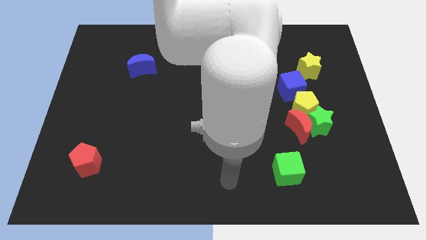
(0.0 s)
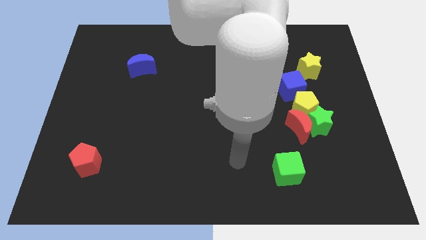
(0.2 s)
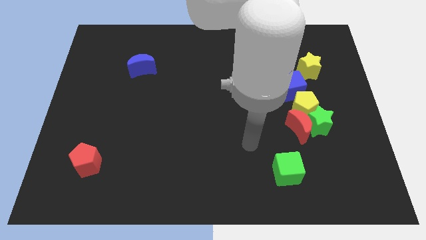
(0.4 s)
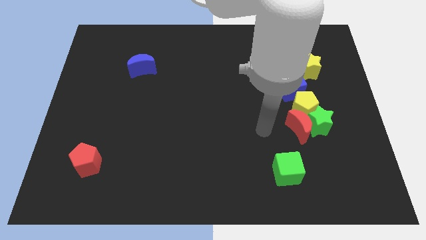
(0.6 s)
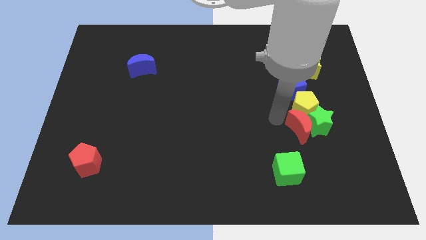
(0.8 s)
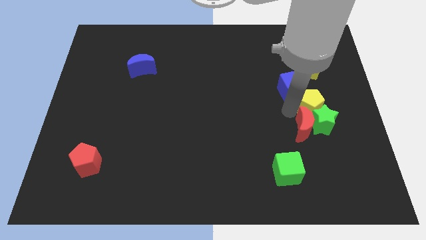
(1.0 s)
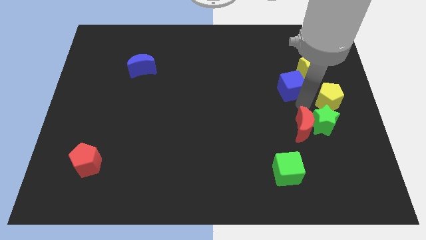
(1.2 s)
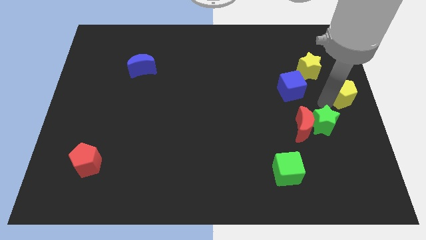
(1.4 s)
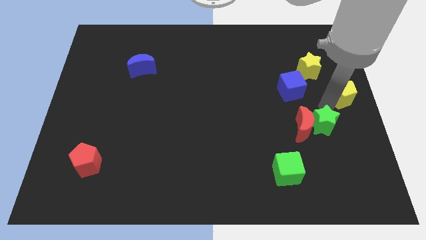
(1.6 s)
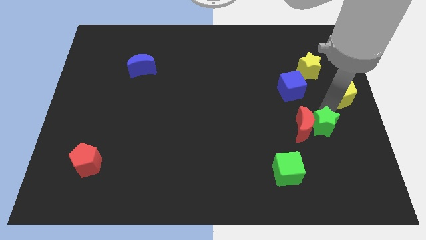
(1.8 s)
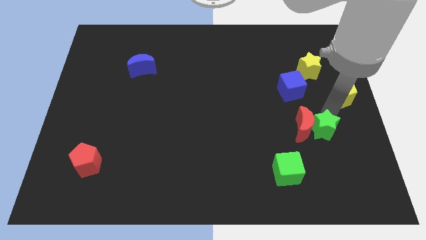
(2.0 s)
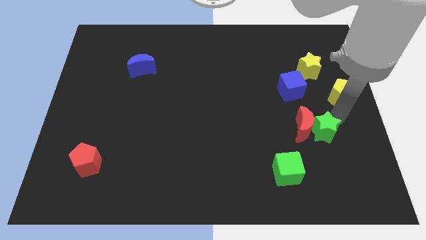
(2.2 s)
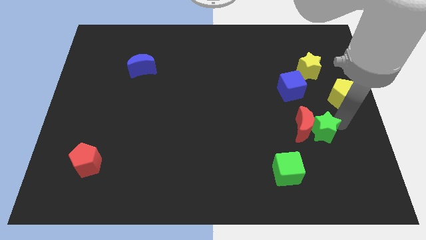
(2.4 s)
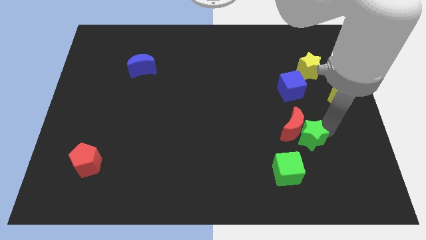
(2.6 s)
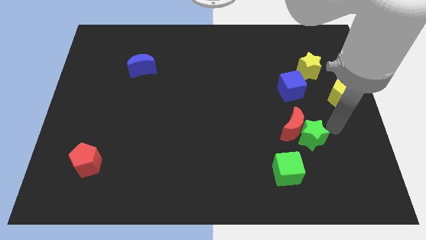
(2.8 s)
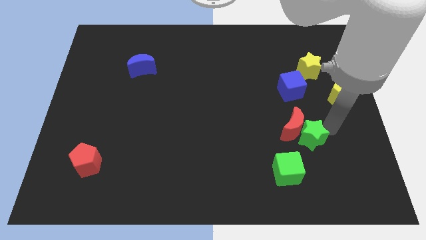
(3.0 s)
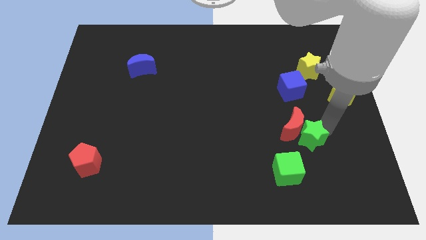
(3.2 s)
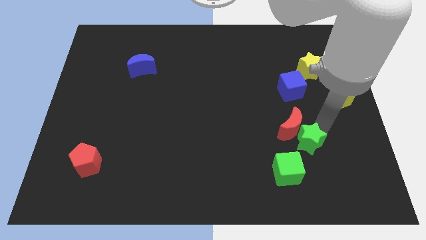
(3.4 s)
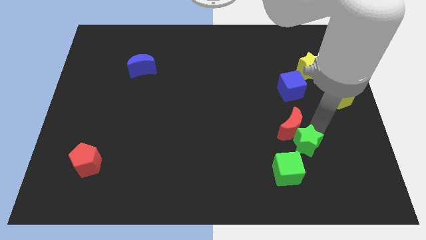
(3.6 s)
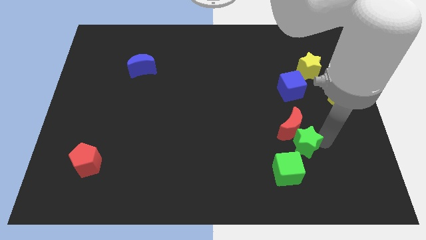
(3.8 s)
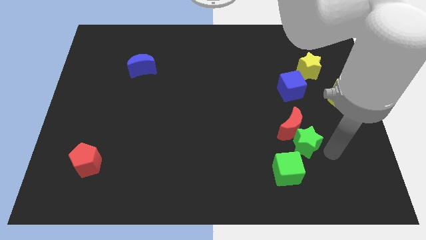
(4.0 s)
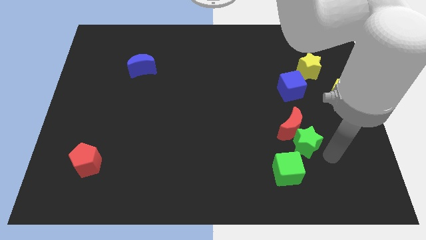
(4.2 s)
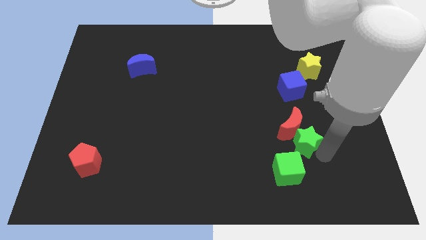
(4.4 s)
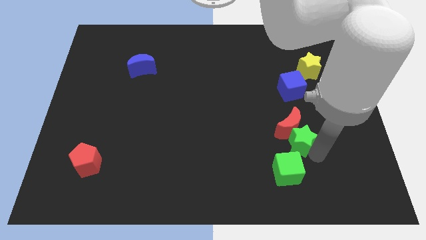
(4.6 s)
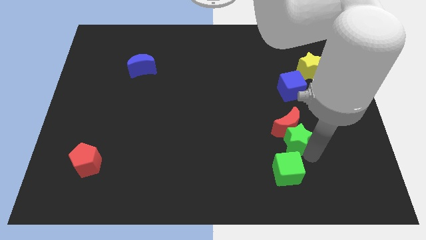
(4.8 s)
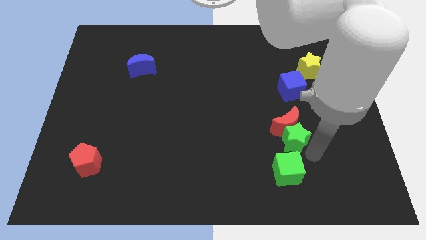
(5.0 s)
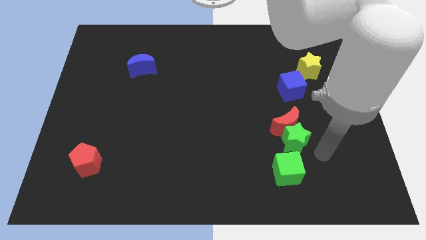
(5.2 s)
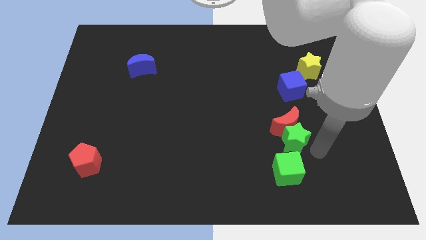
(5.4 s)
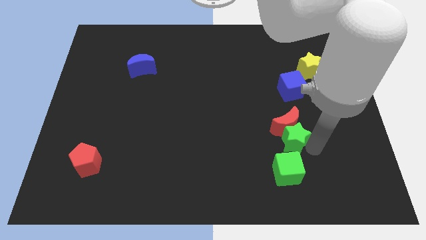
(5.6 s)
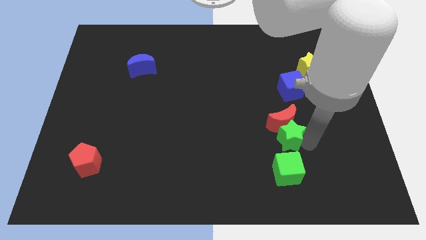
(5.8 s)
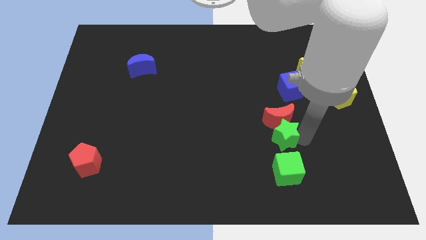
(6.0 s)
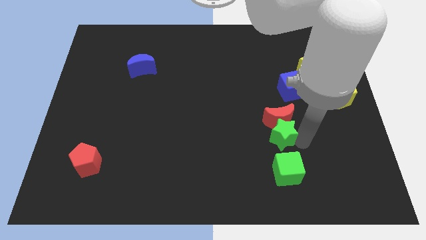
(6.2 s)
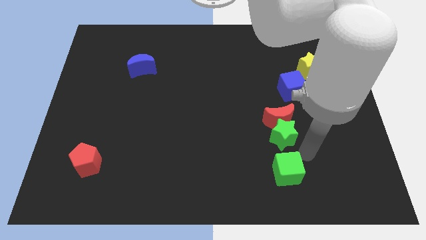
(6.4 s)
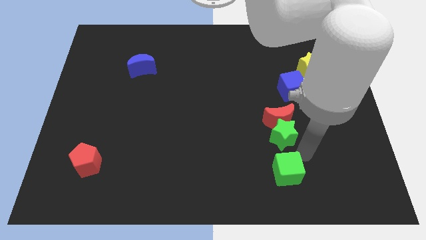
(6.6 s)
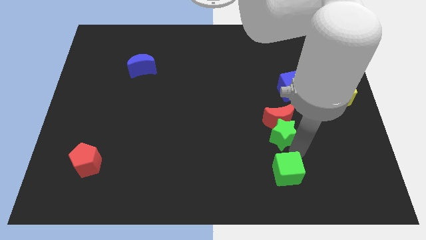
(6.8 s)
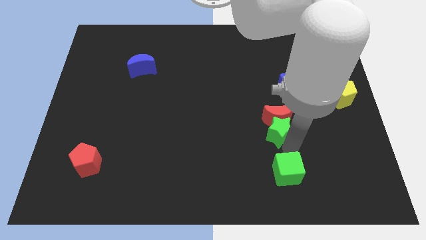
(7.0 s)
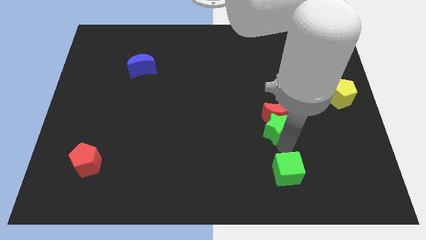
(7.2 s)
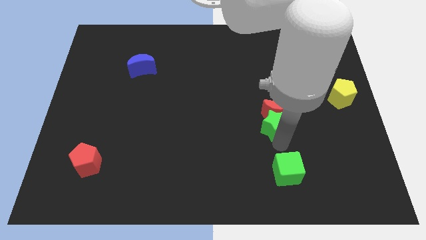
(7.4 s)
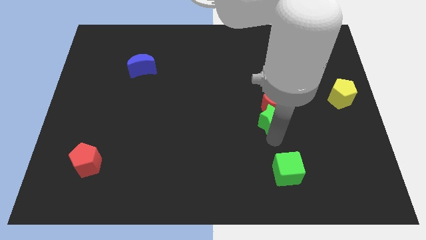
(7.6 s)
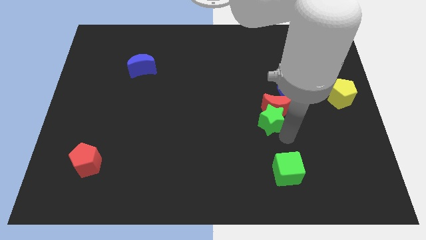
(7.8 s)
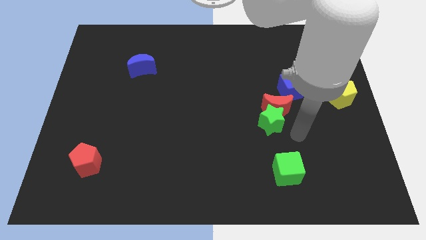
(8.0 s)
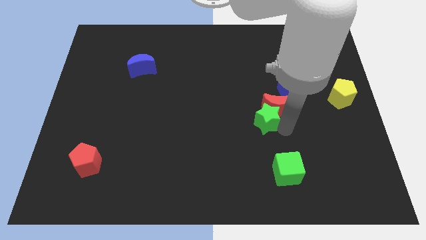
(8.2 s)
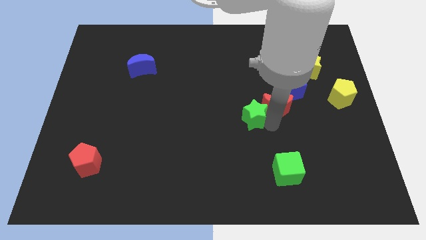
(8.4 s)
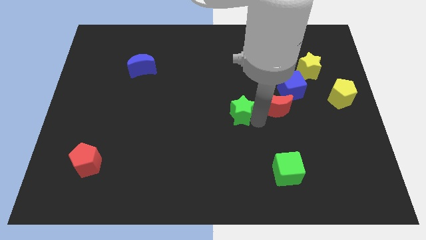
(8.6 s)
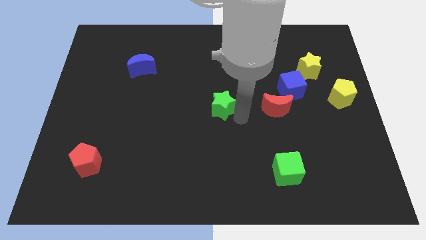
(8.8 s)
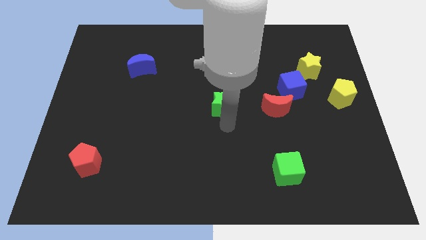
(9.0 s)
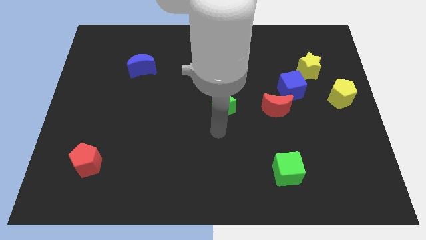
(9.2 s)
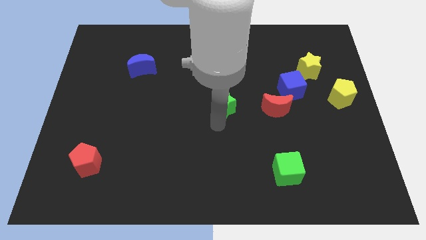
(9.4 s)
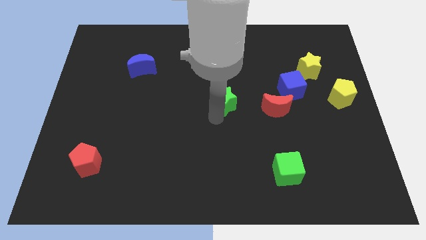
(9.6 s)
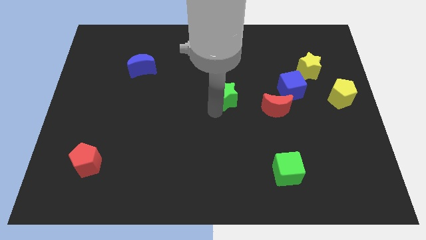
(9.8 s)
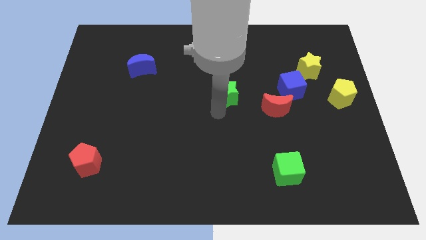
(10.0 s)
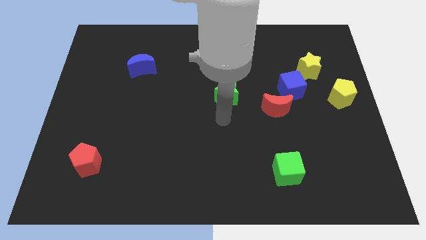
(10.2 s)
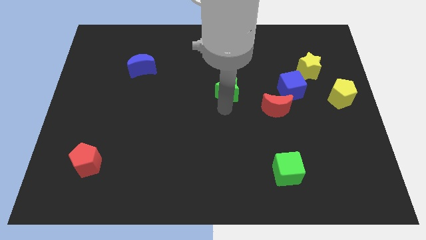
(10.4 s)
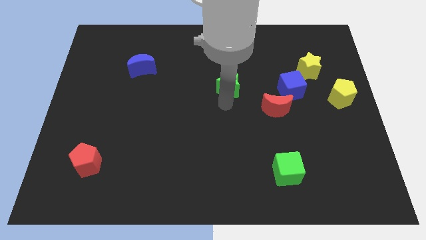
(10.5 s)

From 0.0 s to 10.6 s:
move the green star diagonally upwards and to the left

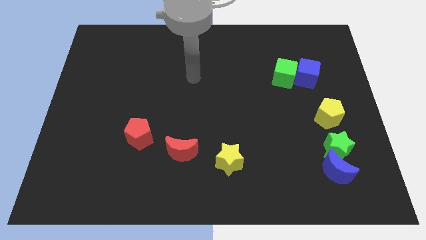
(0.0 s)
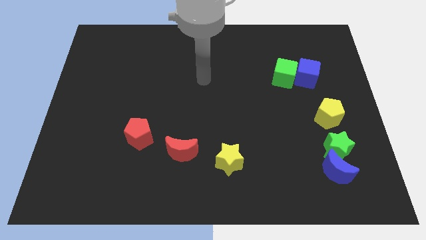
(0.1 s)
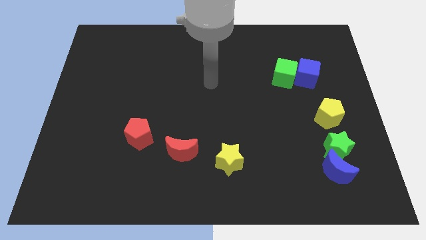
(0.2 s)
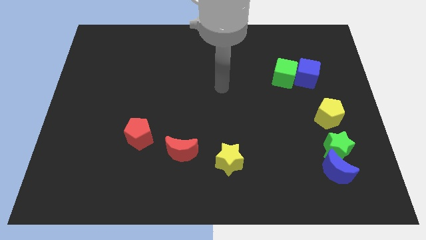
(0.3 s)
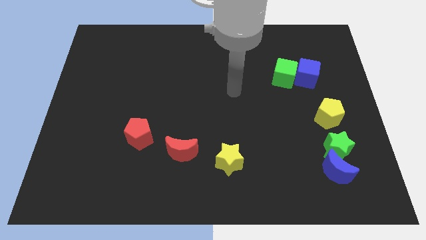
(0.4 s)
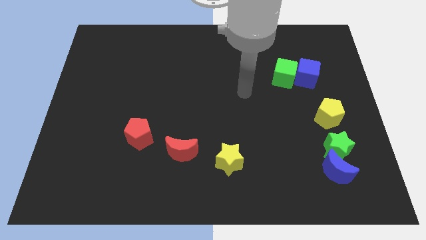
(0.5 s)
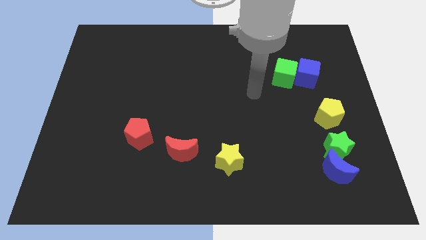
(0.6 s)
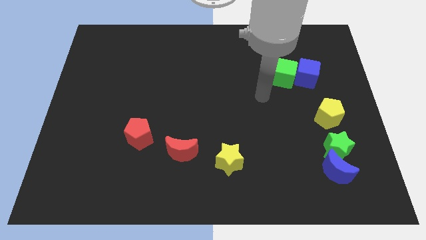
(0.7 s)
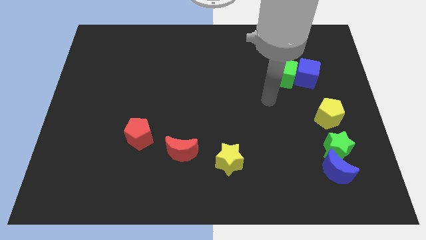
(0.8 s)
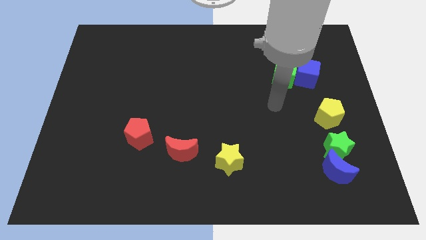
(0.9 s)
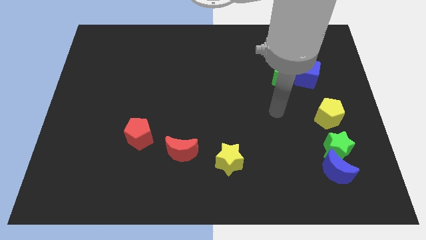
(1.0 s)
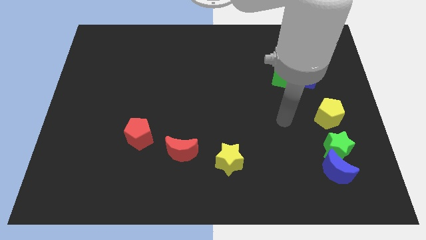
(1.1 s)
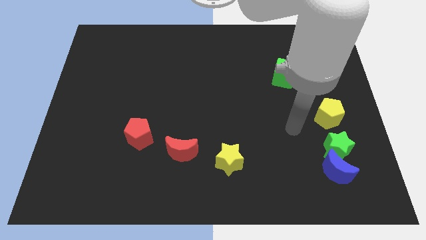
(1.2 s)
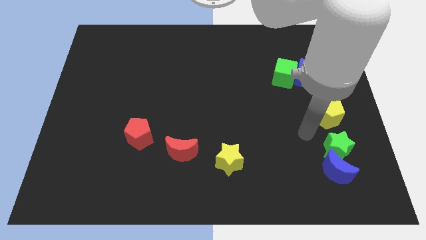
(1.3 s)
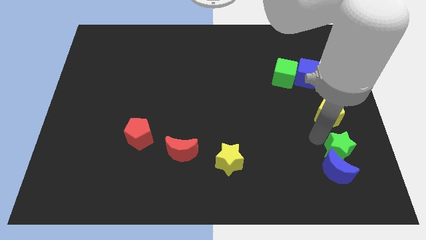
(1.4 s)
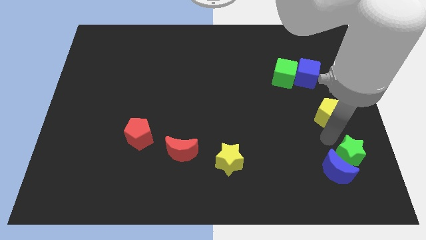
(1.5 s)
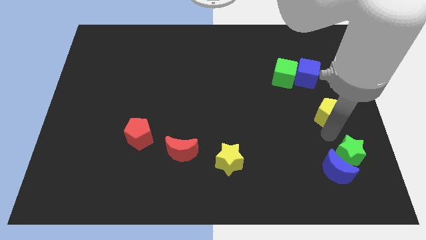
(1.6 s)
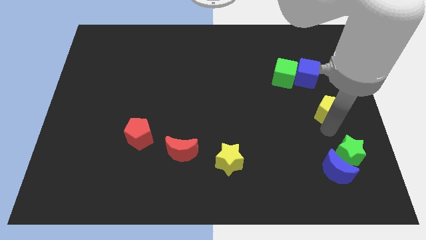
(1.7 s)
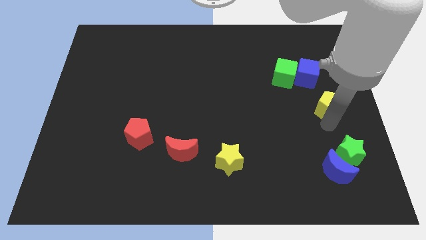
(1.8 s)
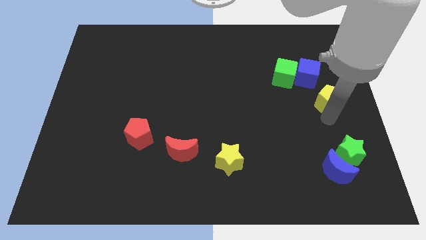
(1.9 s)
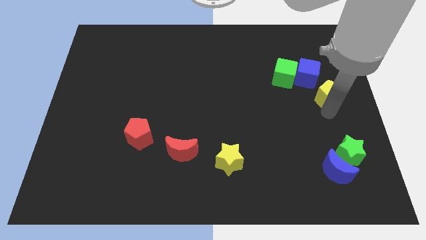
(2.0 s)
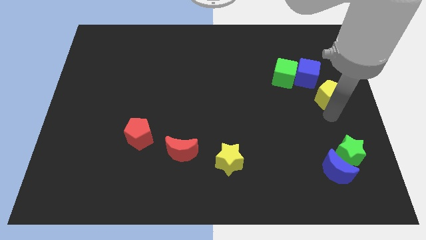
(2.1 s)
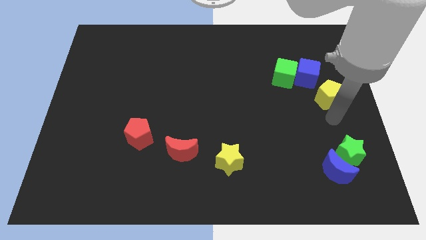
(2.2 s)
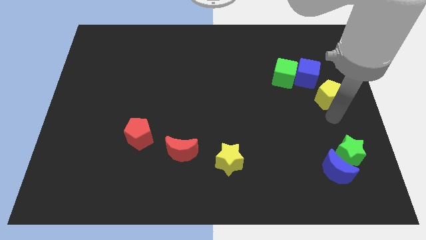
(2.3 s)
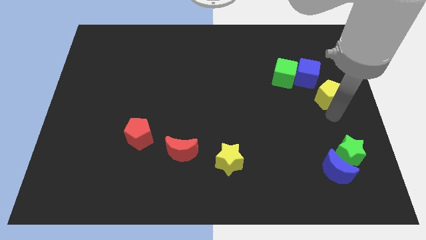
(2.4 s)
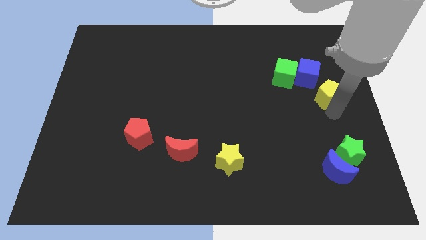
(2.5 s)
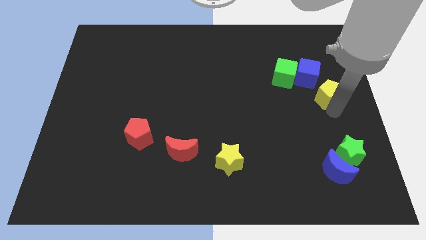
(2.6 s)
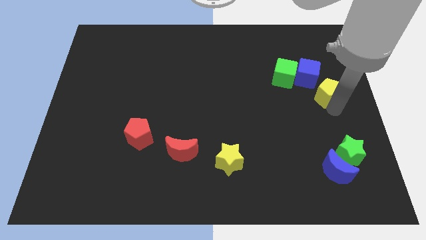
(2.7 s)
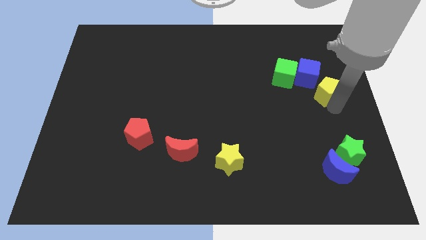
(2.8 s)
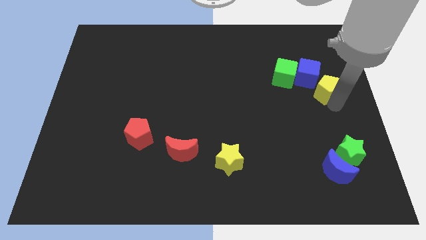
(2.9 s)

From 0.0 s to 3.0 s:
slightly slide the yellow pentagon up

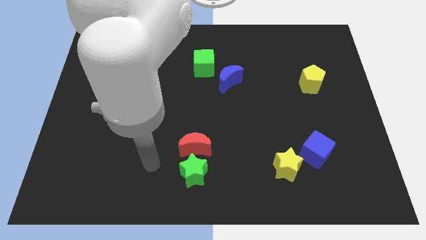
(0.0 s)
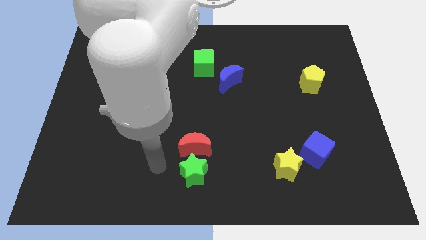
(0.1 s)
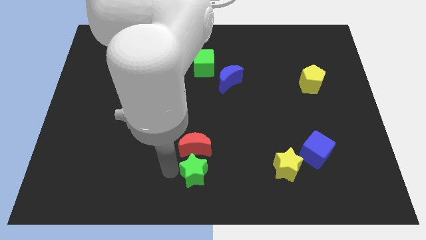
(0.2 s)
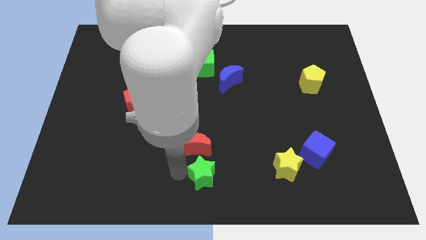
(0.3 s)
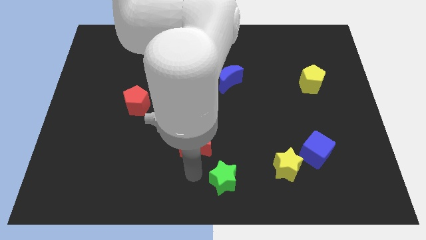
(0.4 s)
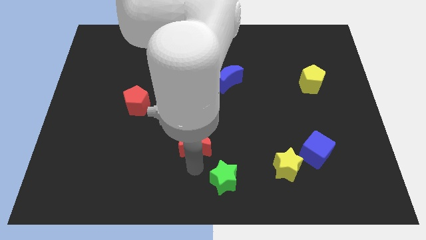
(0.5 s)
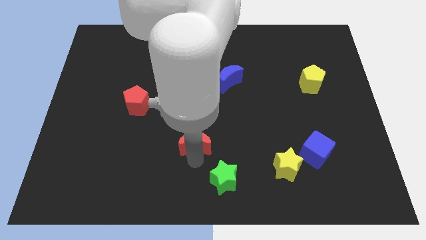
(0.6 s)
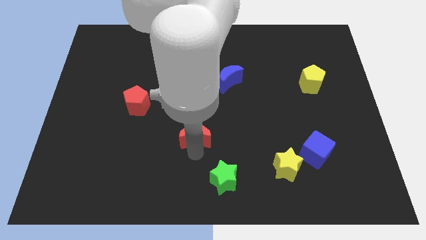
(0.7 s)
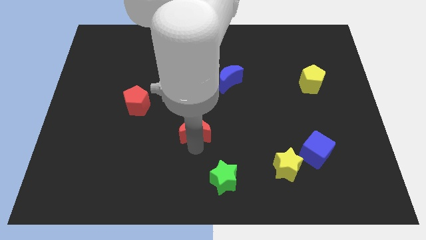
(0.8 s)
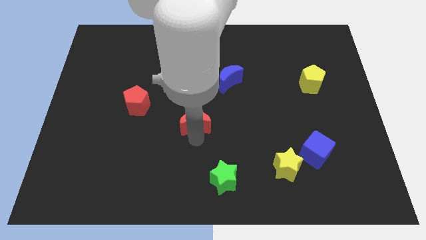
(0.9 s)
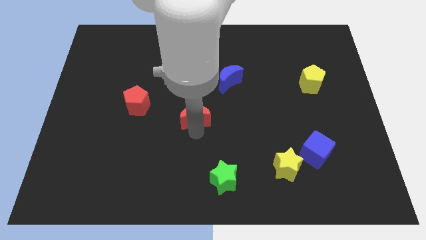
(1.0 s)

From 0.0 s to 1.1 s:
move the red moon a little bit up
